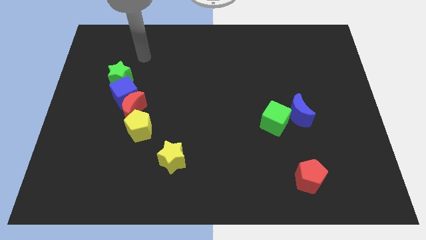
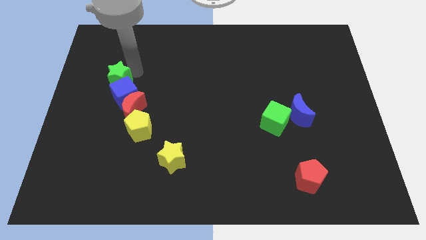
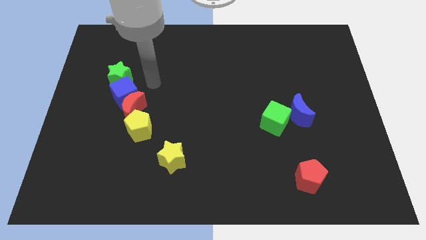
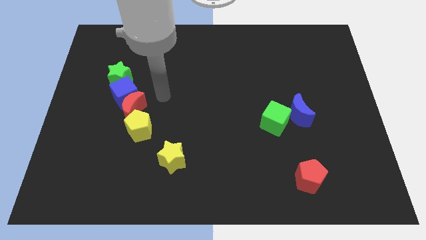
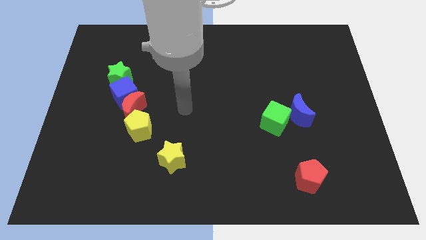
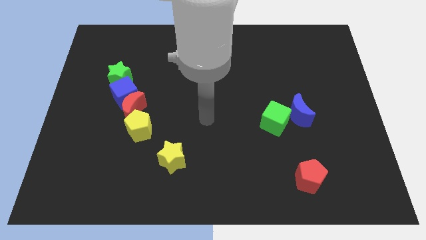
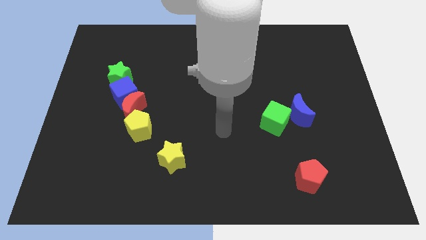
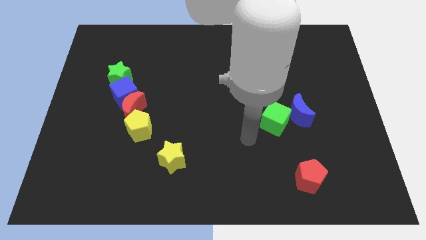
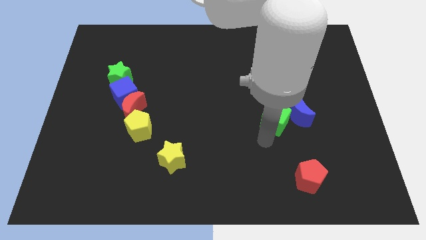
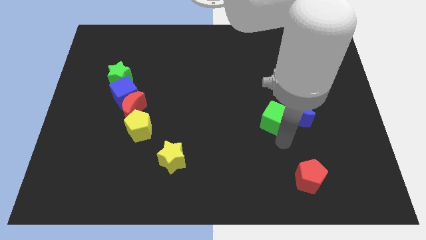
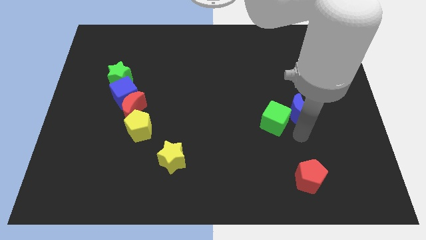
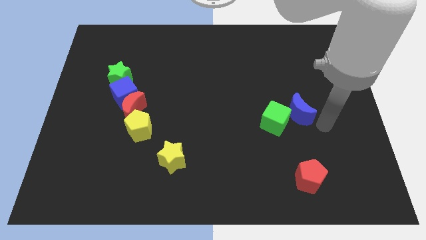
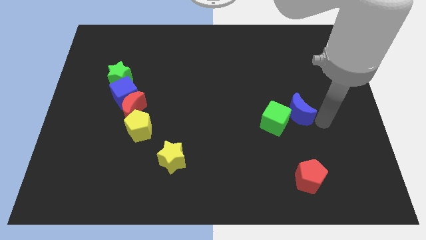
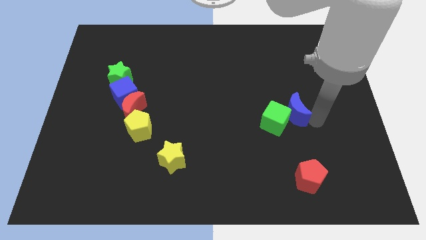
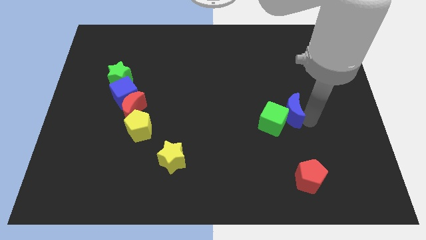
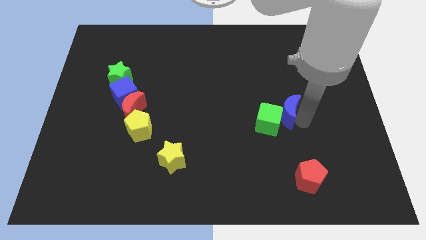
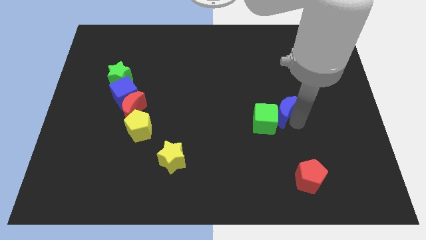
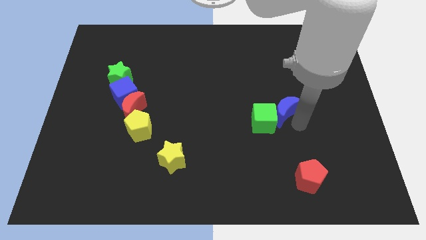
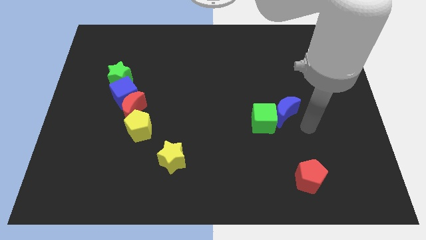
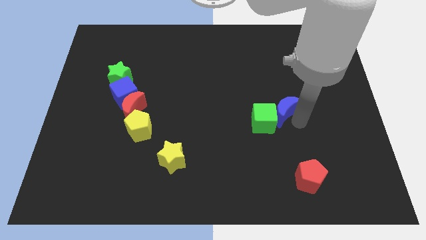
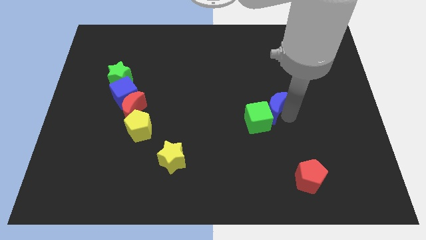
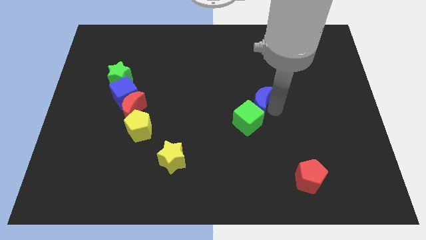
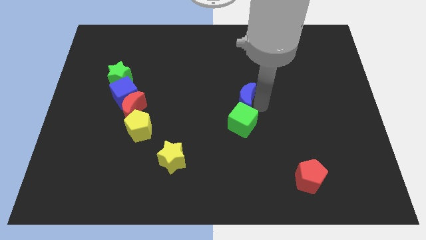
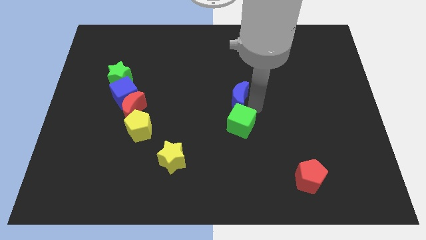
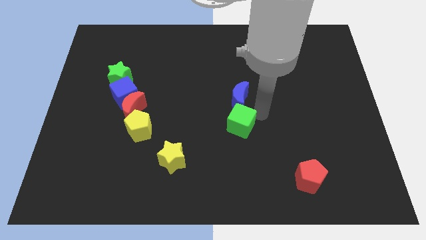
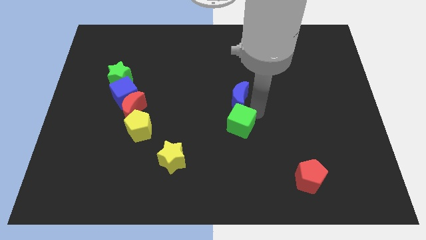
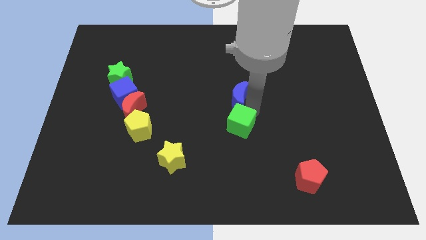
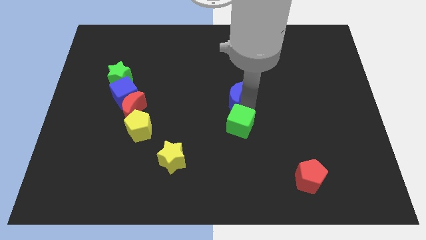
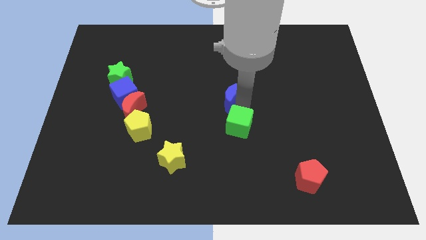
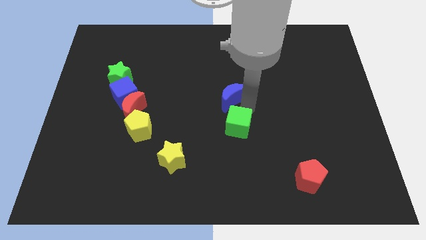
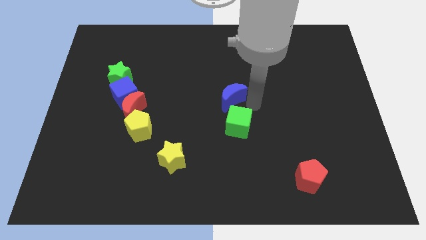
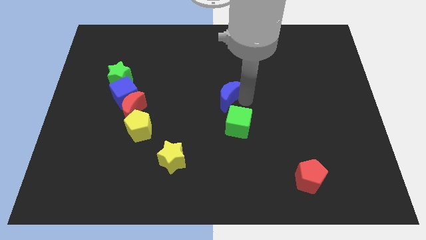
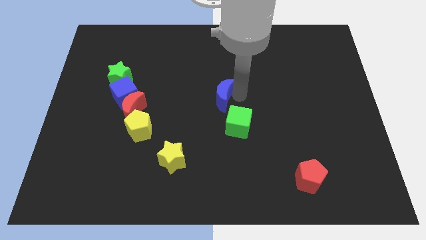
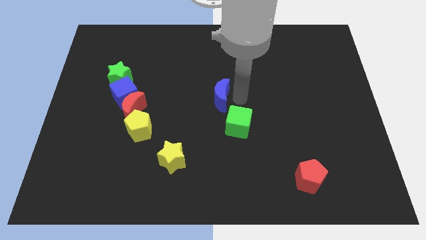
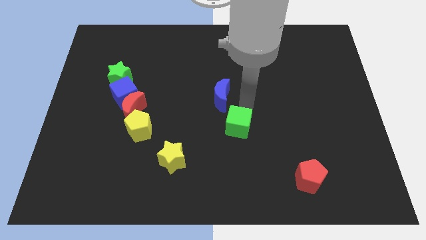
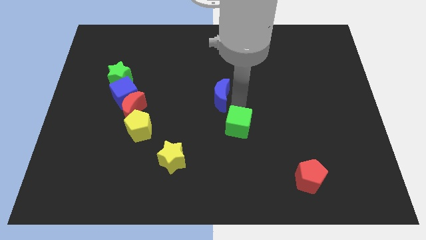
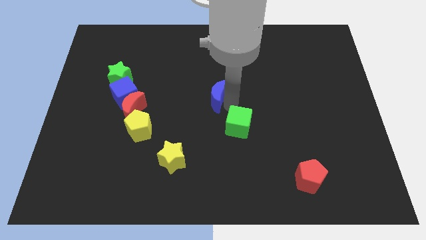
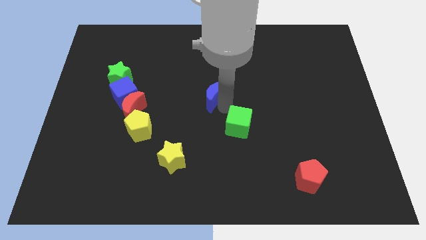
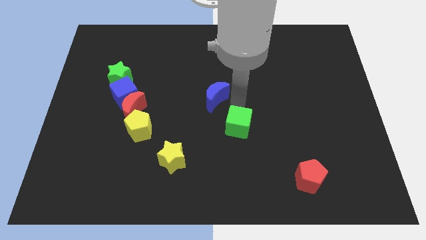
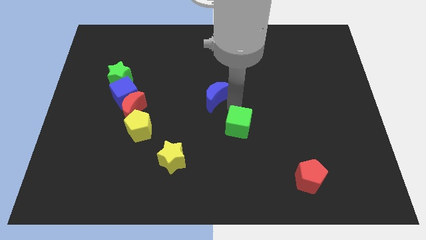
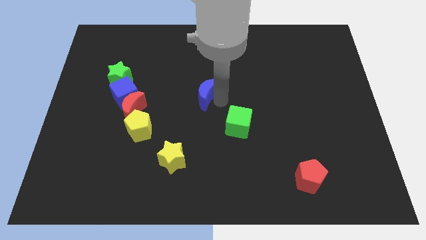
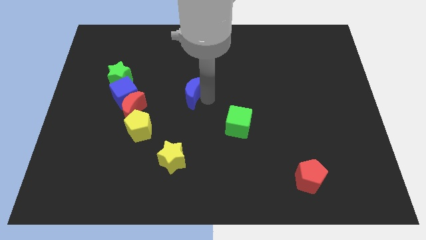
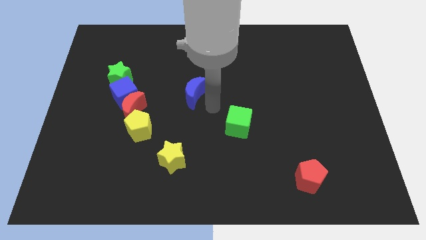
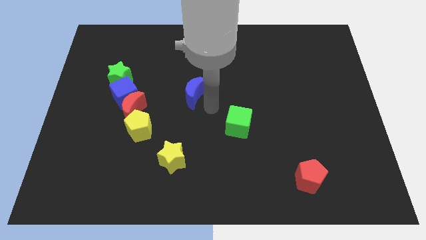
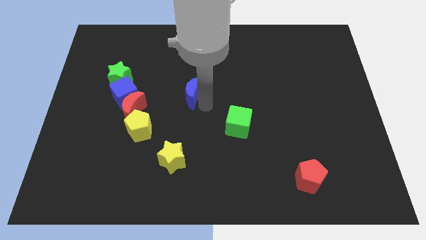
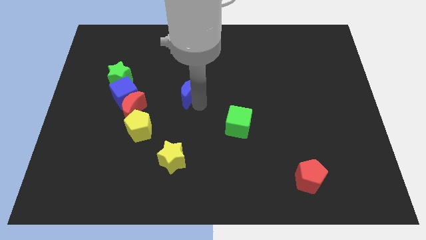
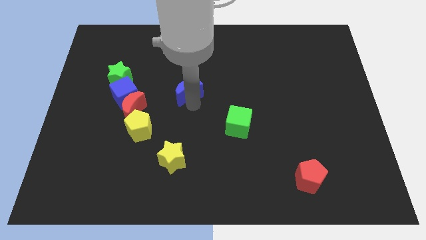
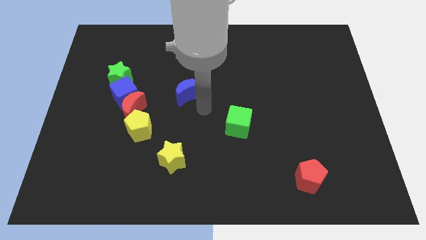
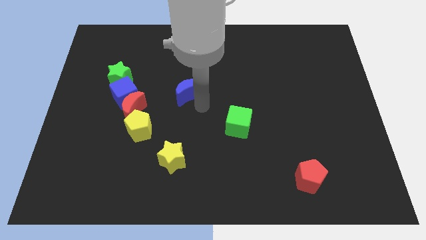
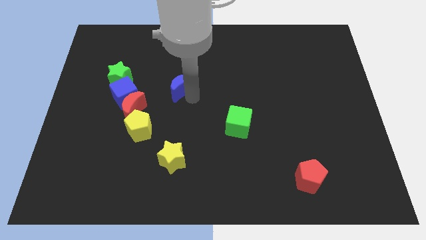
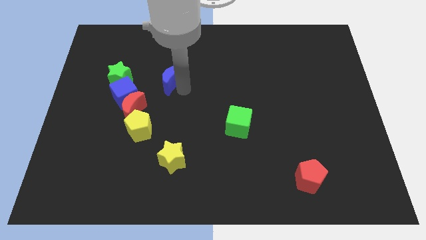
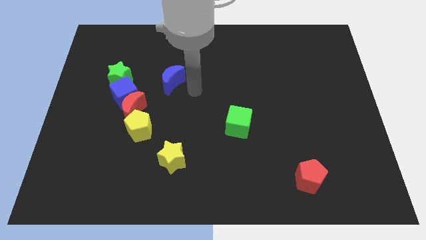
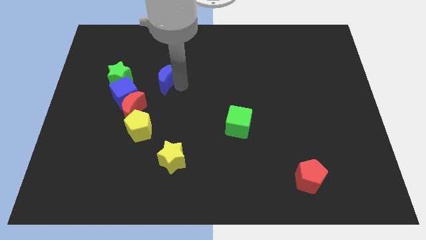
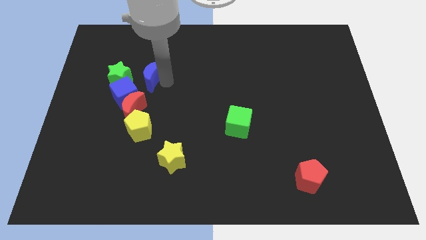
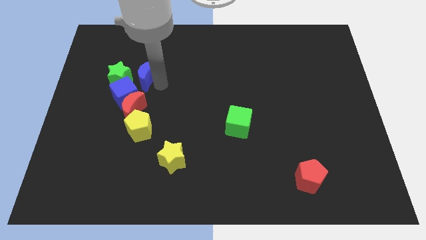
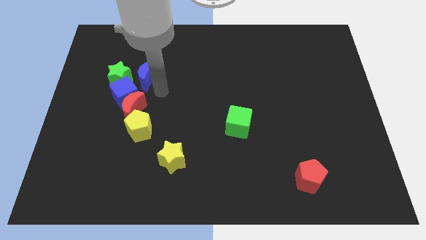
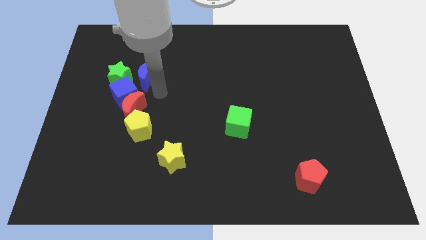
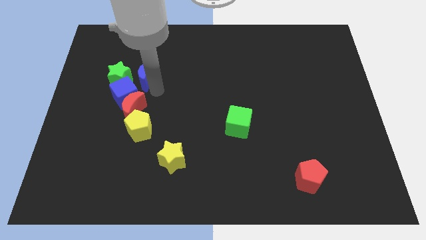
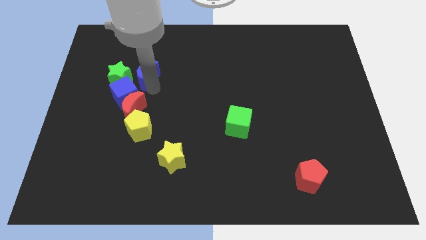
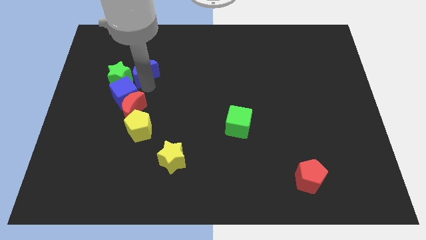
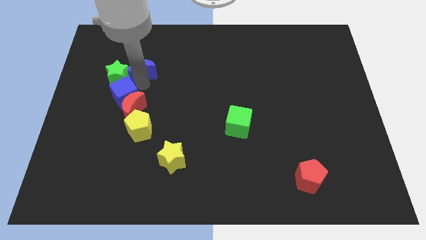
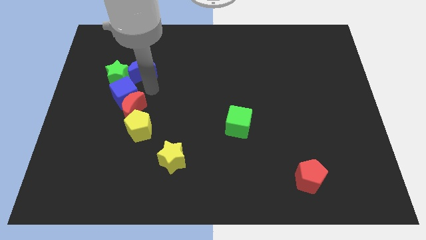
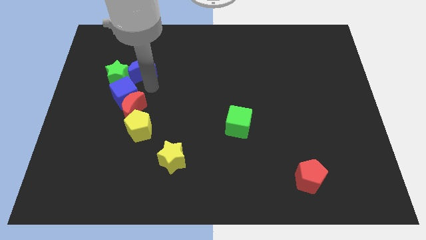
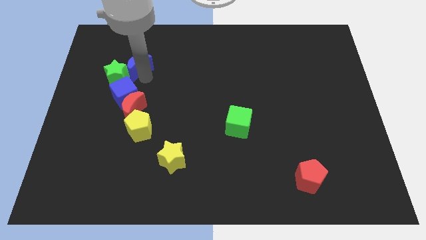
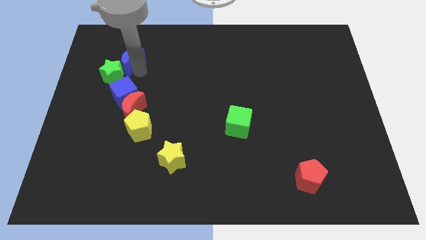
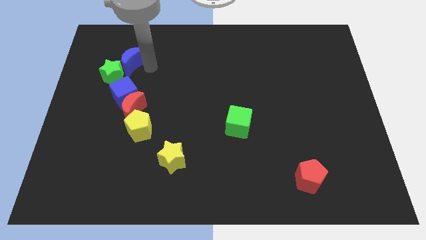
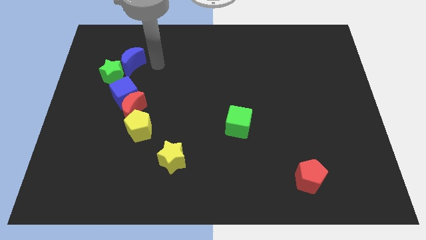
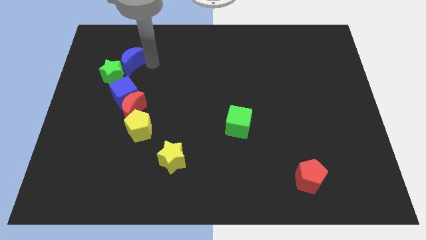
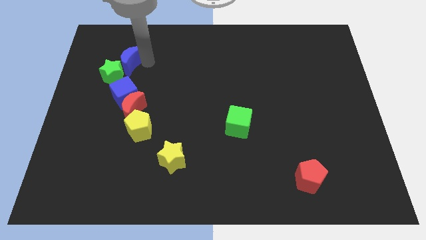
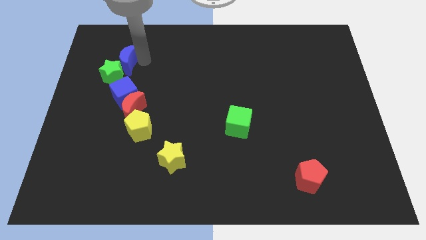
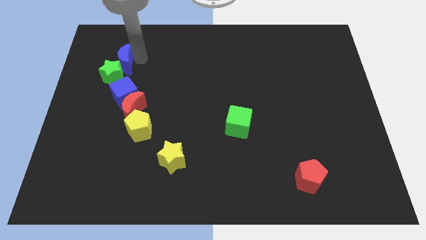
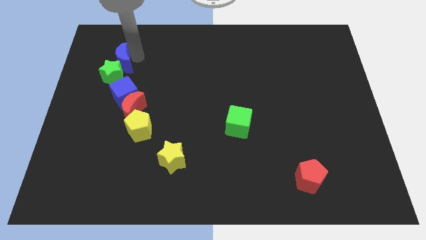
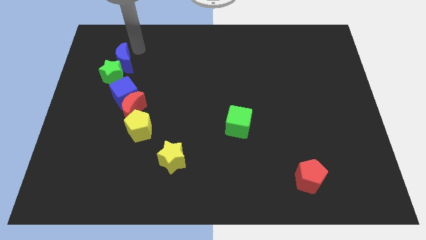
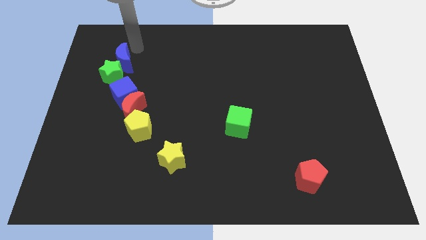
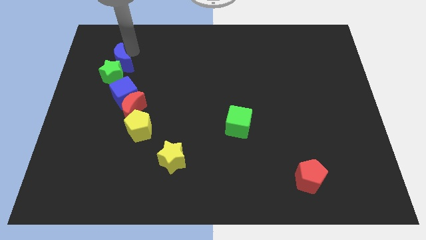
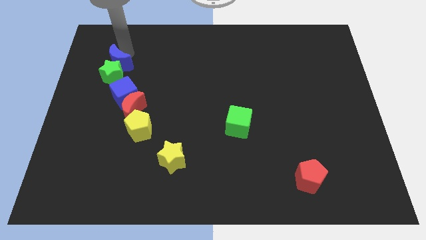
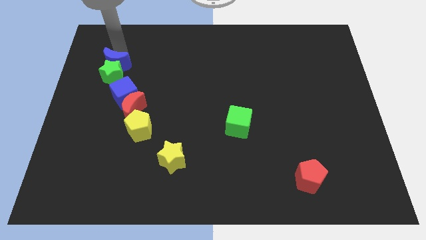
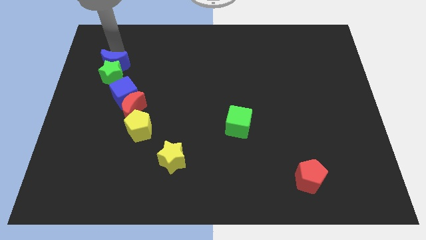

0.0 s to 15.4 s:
push the blue moon to the top left side of the blue cube
